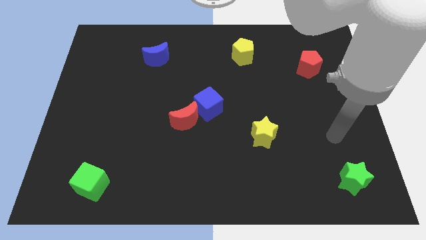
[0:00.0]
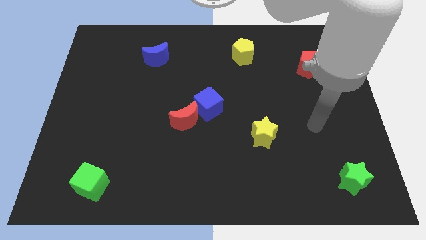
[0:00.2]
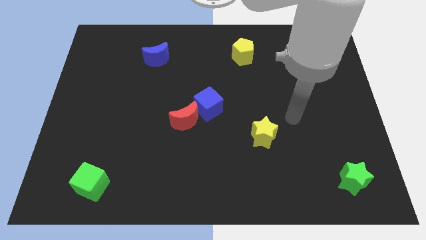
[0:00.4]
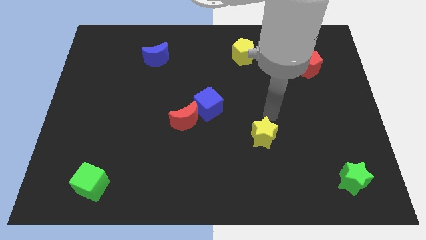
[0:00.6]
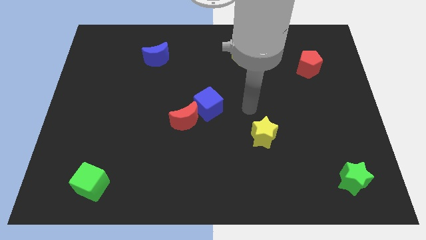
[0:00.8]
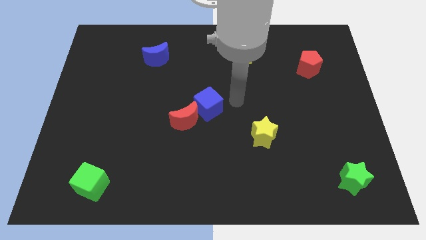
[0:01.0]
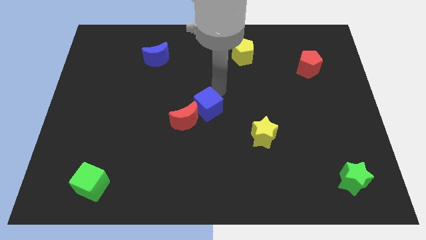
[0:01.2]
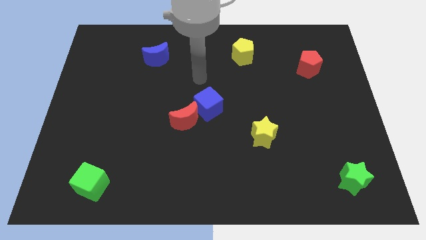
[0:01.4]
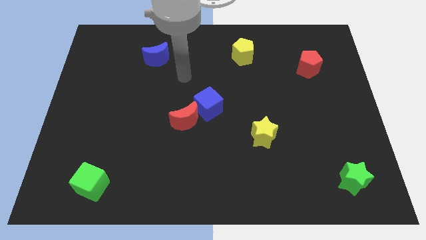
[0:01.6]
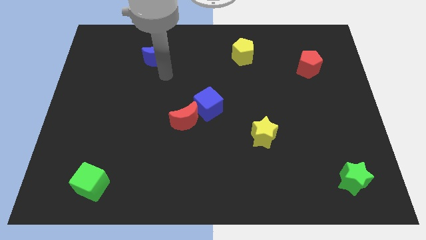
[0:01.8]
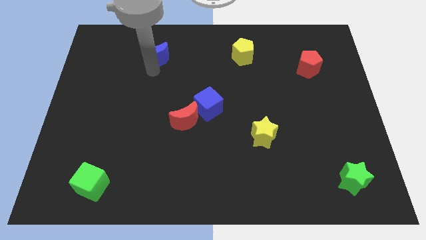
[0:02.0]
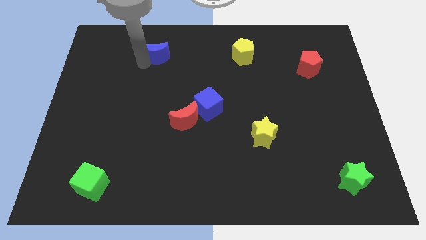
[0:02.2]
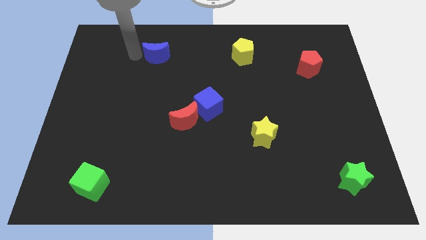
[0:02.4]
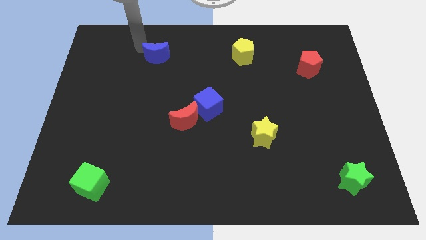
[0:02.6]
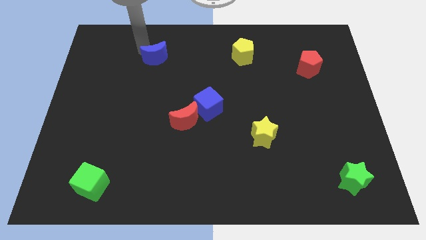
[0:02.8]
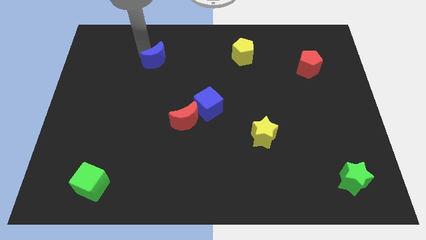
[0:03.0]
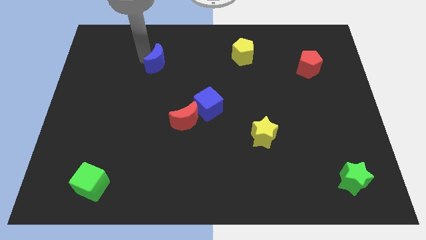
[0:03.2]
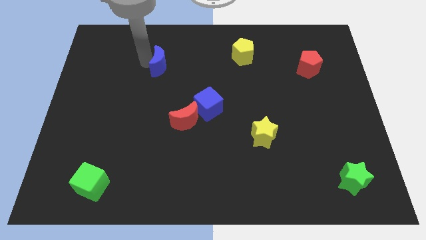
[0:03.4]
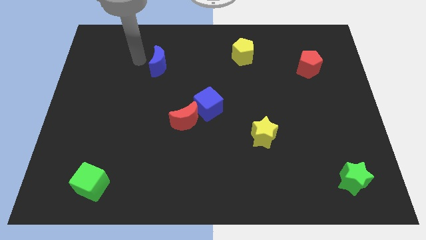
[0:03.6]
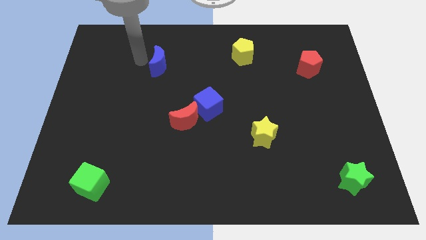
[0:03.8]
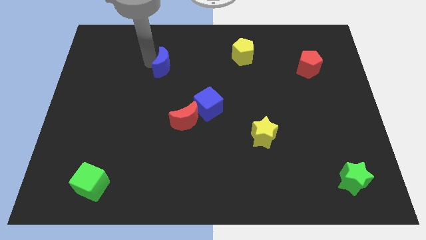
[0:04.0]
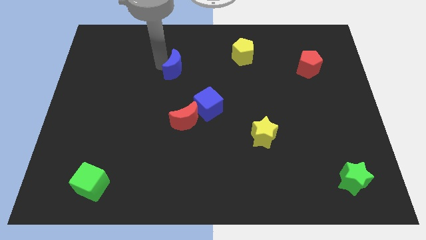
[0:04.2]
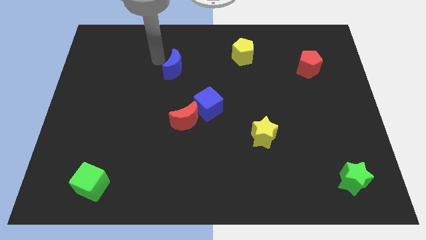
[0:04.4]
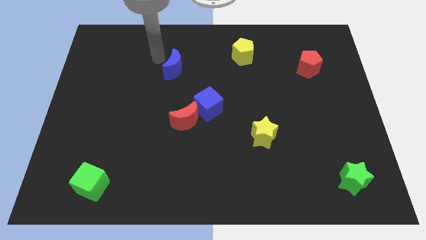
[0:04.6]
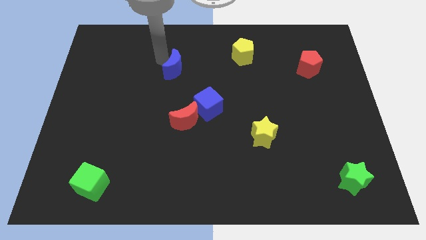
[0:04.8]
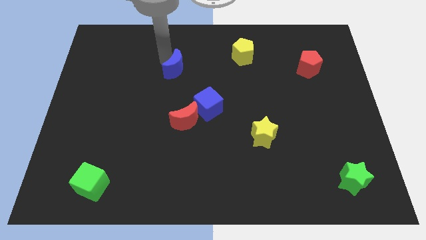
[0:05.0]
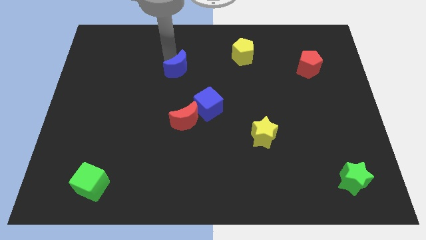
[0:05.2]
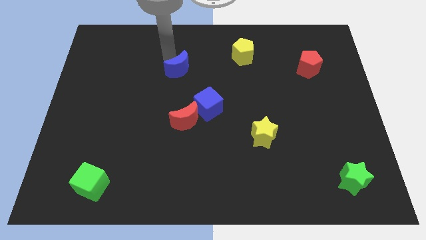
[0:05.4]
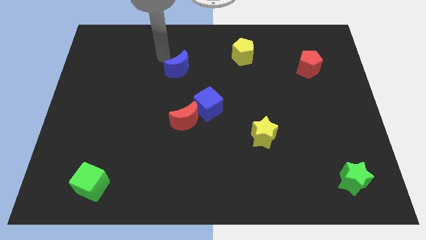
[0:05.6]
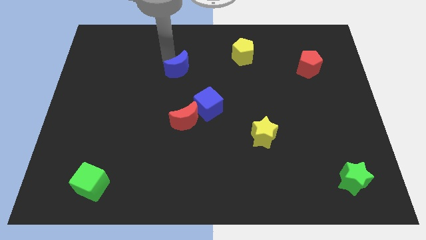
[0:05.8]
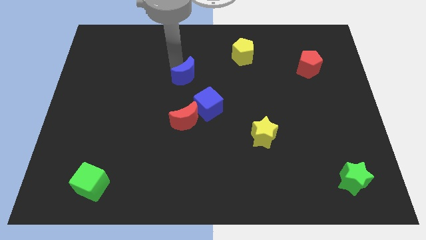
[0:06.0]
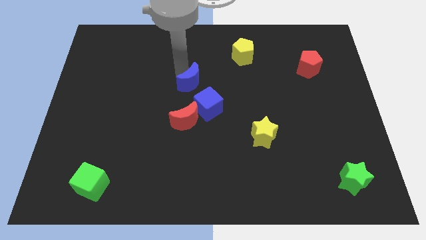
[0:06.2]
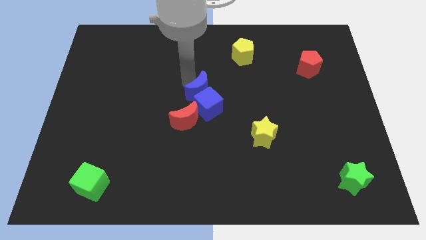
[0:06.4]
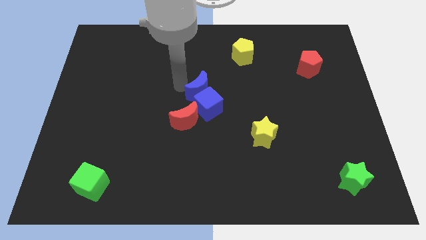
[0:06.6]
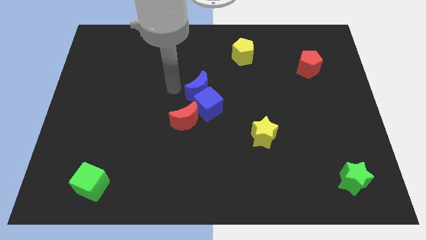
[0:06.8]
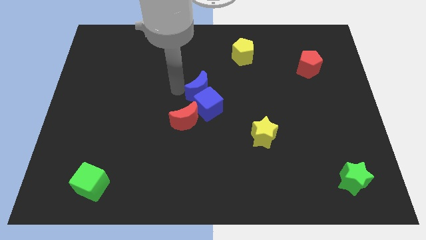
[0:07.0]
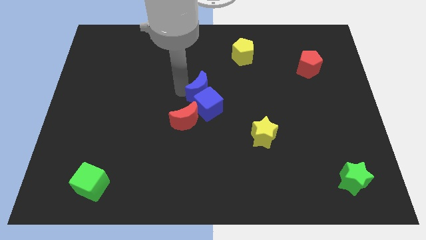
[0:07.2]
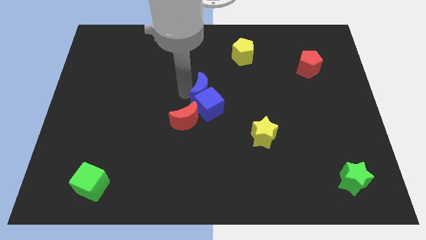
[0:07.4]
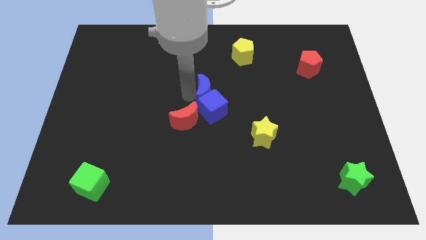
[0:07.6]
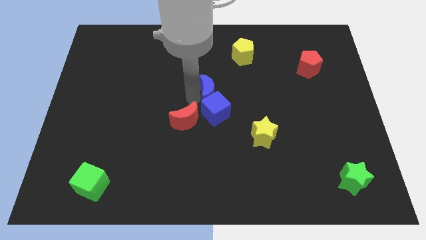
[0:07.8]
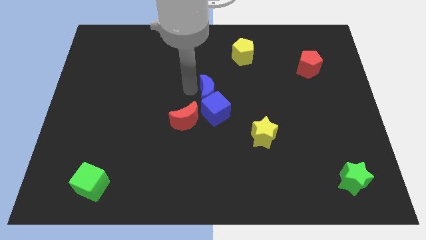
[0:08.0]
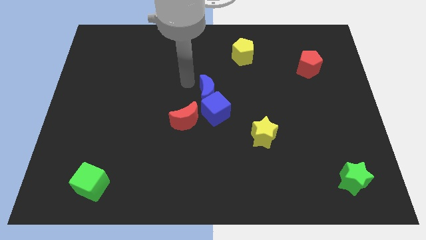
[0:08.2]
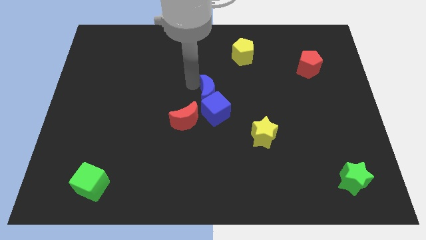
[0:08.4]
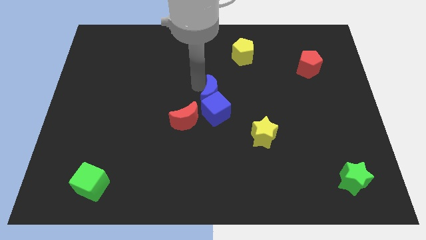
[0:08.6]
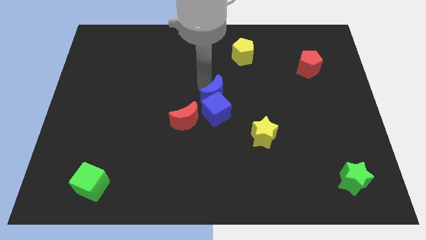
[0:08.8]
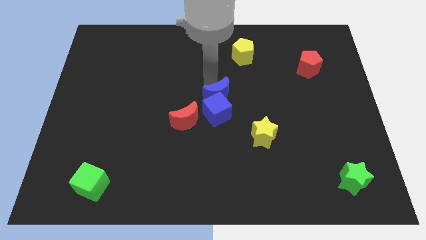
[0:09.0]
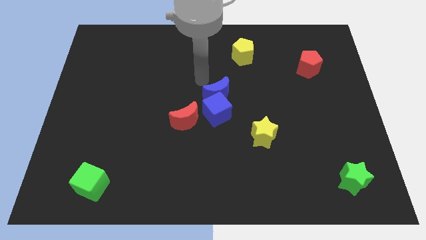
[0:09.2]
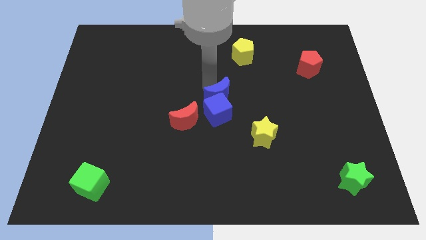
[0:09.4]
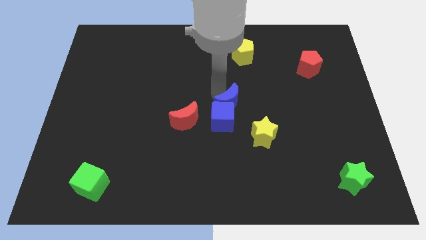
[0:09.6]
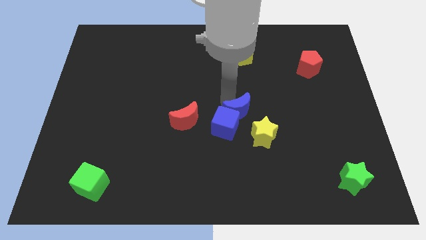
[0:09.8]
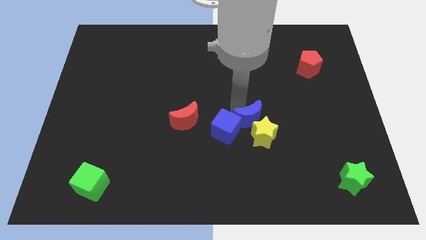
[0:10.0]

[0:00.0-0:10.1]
push the blue moon to the yellow star

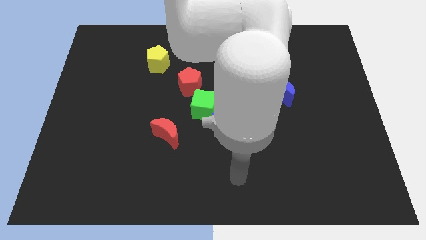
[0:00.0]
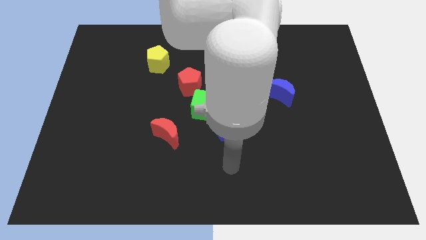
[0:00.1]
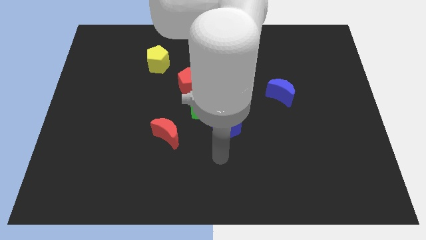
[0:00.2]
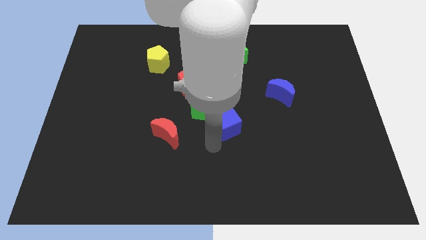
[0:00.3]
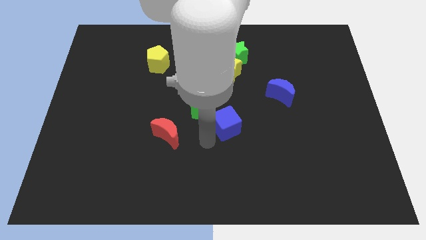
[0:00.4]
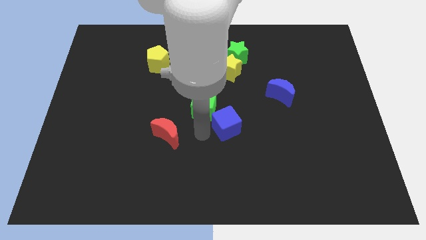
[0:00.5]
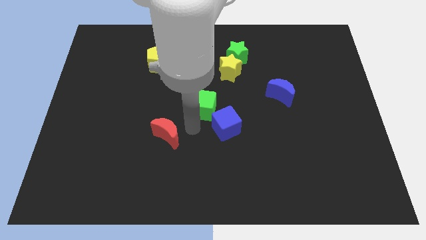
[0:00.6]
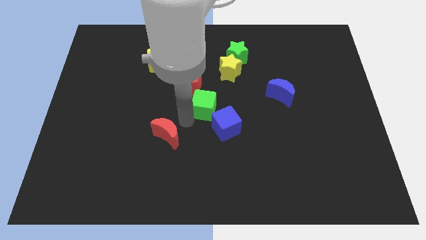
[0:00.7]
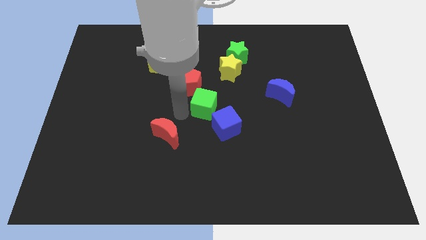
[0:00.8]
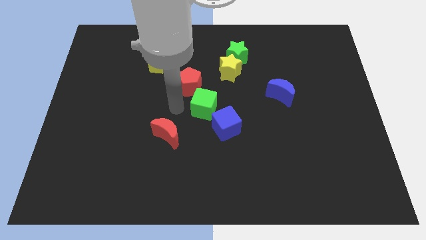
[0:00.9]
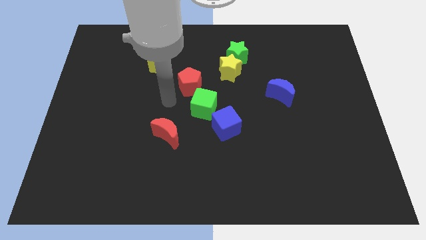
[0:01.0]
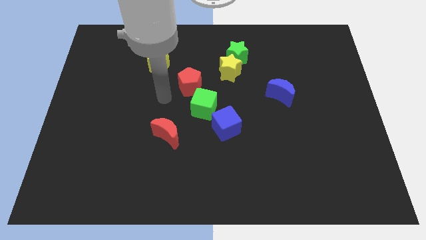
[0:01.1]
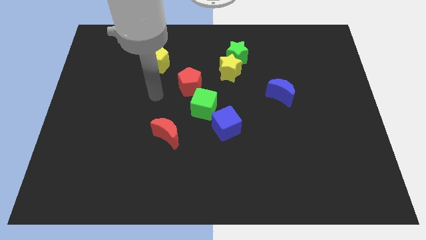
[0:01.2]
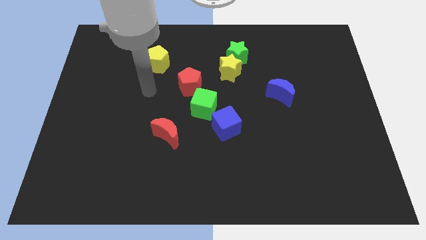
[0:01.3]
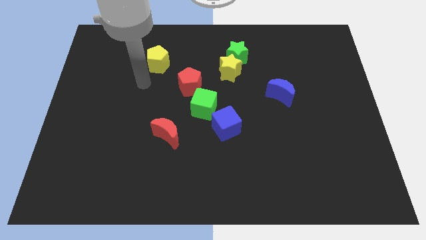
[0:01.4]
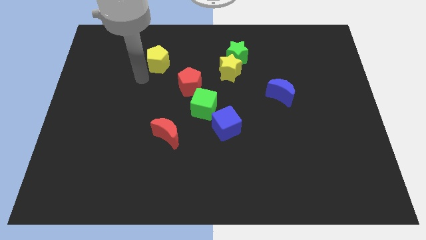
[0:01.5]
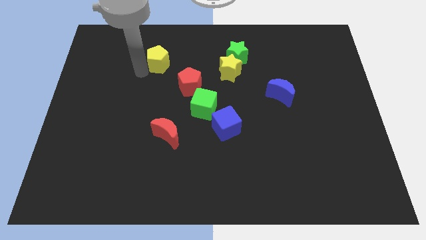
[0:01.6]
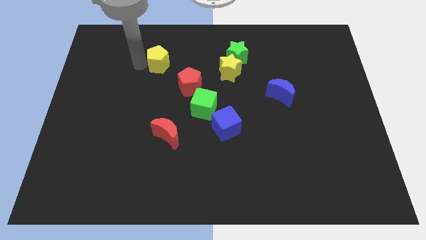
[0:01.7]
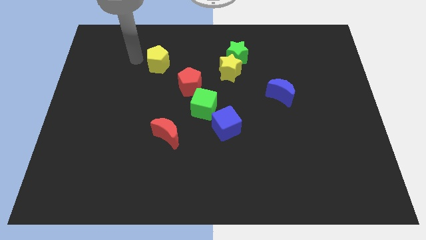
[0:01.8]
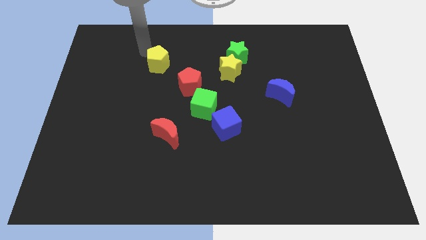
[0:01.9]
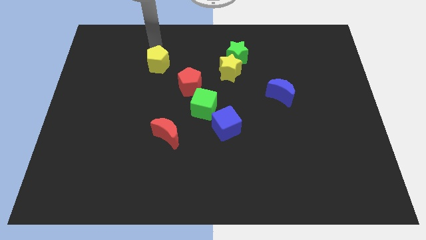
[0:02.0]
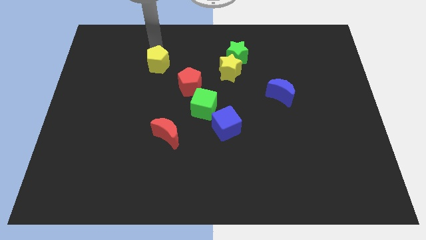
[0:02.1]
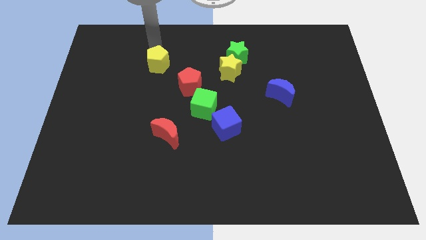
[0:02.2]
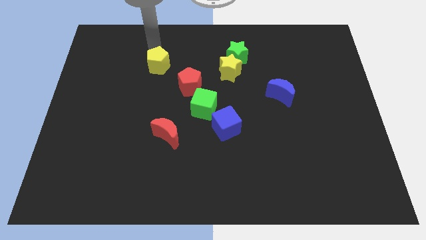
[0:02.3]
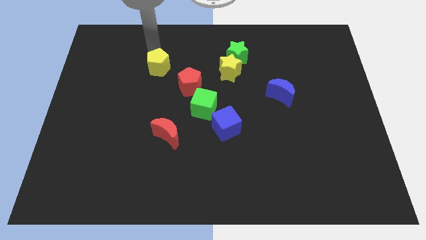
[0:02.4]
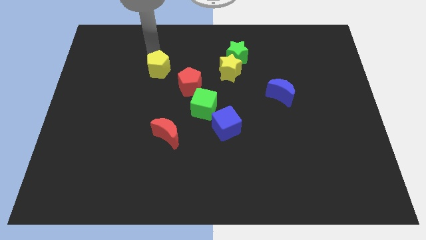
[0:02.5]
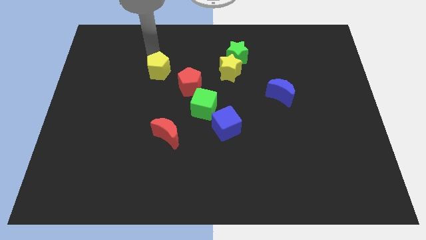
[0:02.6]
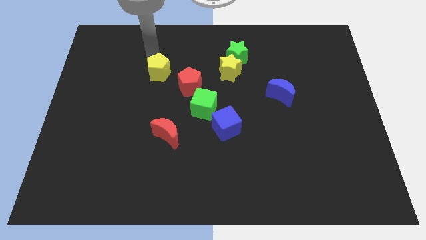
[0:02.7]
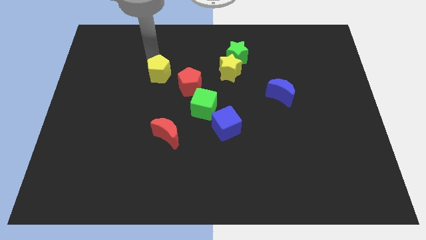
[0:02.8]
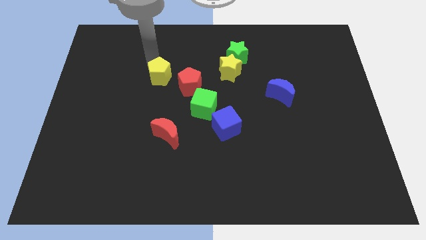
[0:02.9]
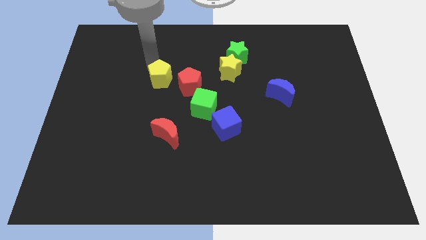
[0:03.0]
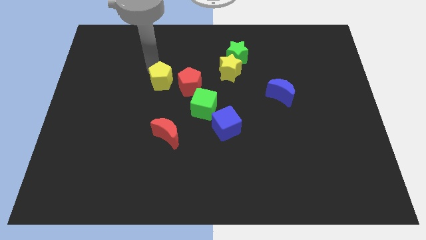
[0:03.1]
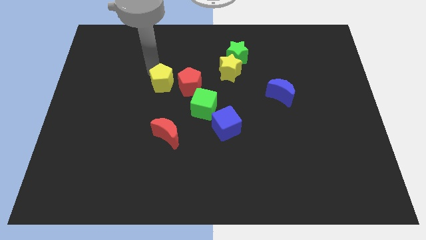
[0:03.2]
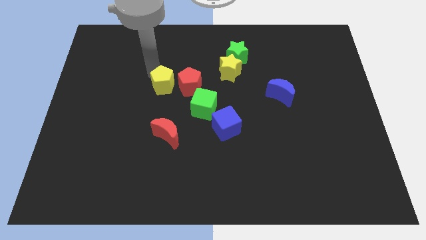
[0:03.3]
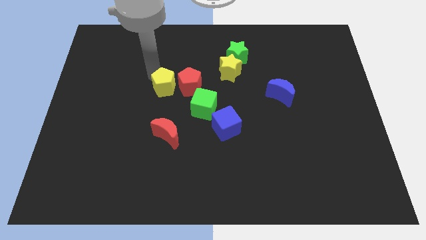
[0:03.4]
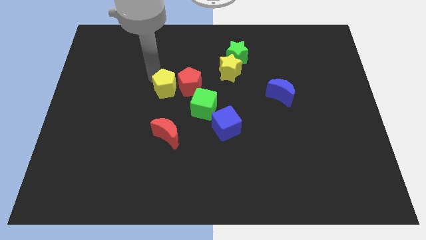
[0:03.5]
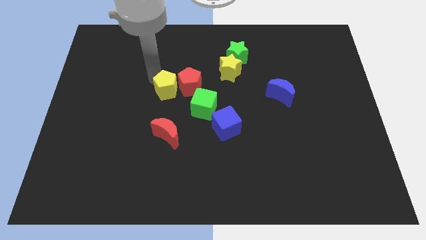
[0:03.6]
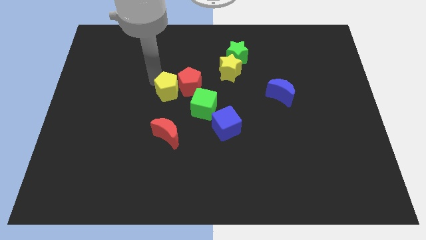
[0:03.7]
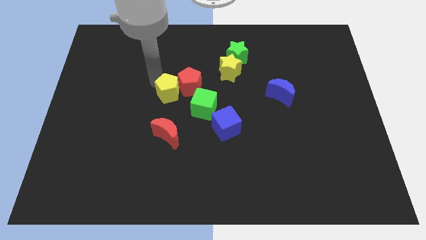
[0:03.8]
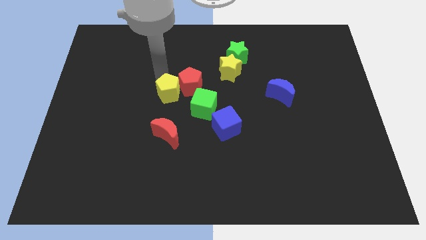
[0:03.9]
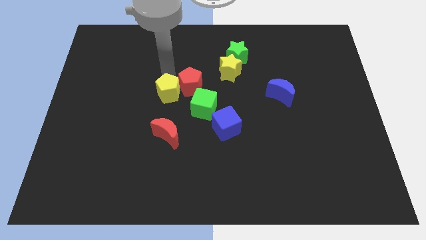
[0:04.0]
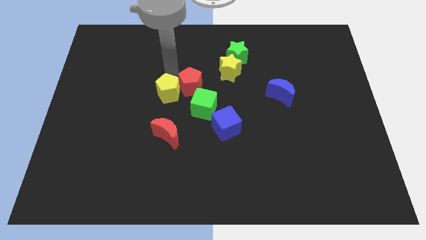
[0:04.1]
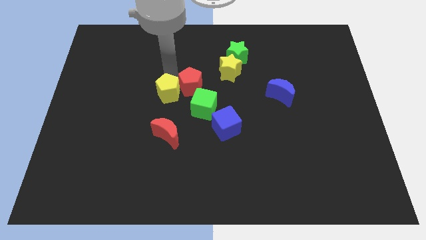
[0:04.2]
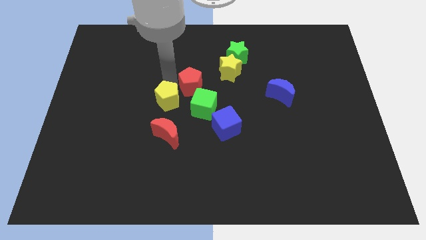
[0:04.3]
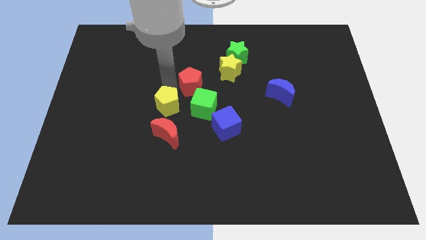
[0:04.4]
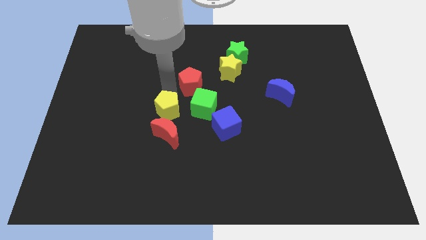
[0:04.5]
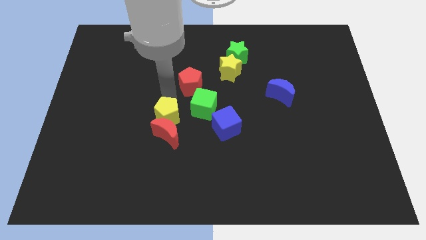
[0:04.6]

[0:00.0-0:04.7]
put the yellow pentagon to the red moon
